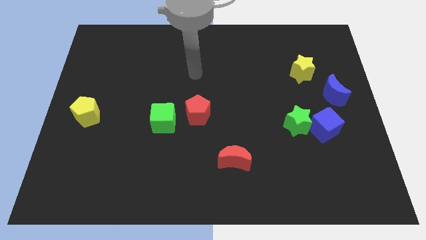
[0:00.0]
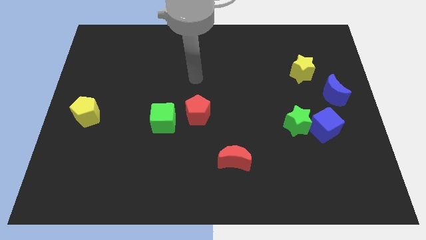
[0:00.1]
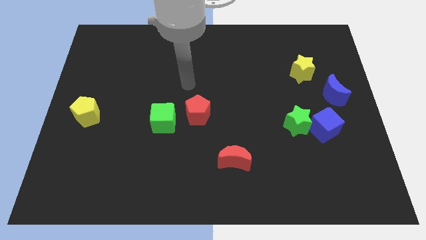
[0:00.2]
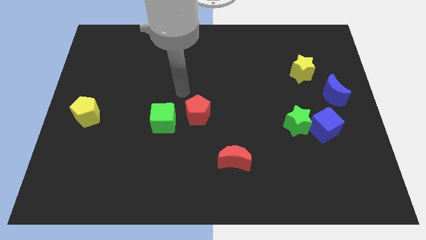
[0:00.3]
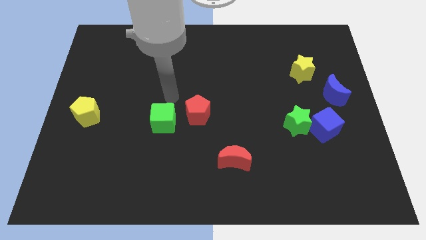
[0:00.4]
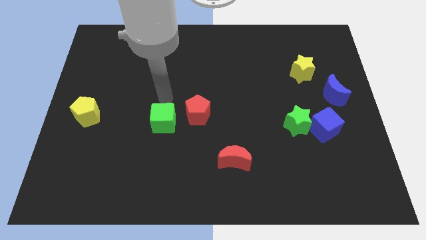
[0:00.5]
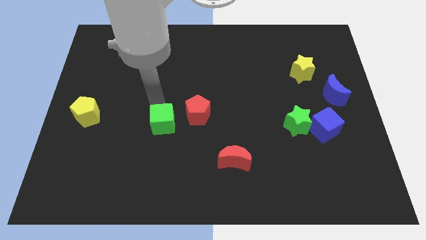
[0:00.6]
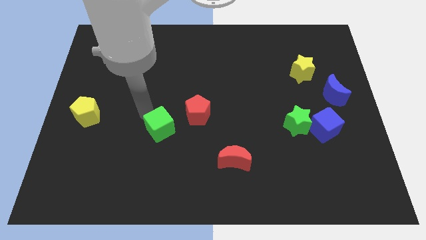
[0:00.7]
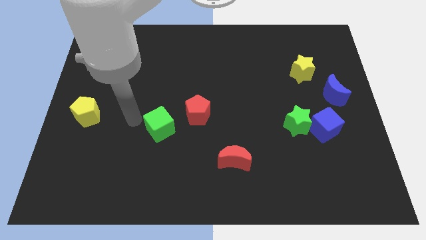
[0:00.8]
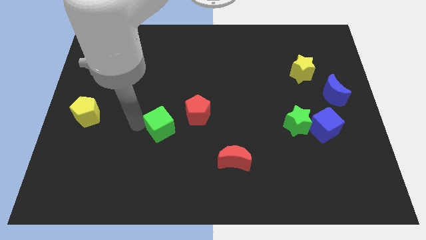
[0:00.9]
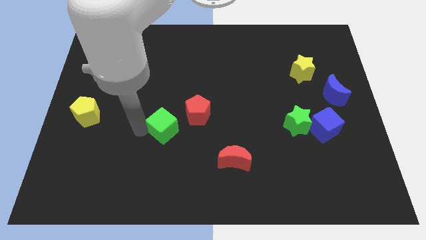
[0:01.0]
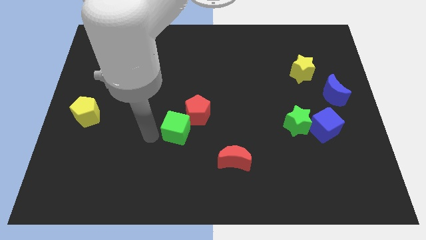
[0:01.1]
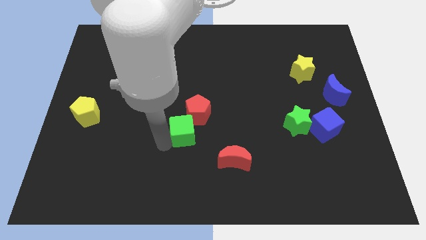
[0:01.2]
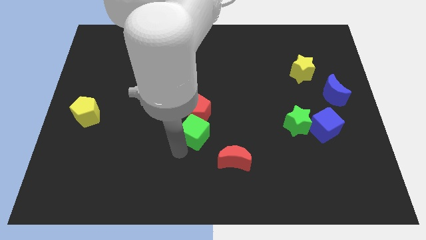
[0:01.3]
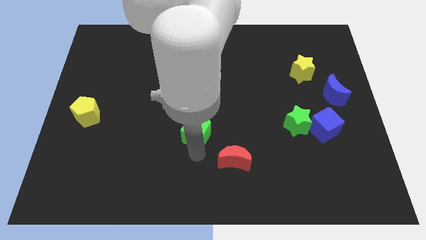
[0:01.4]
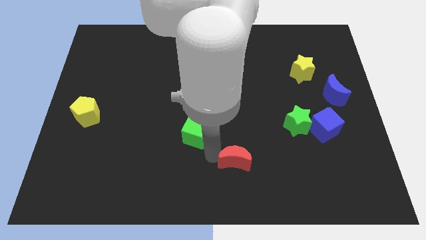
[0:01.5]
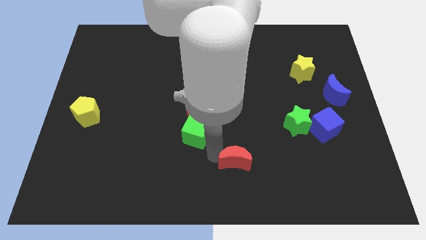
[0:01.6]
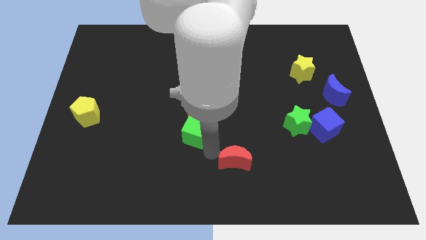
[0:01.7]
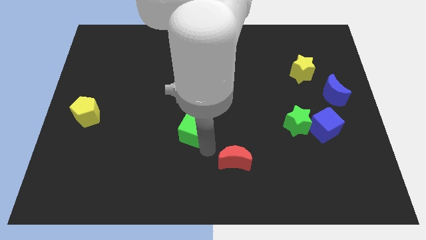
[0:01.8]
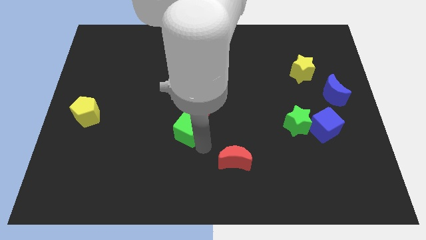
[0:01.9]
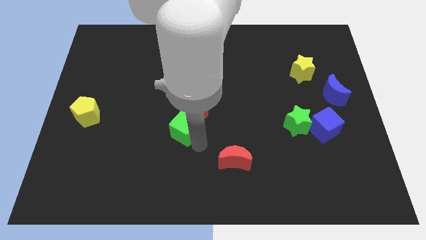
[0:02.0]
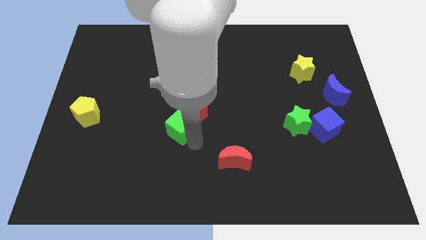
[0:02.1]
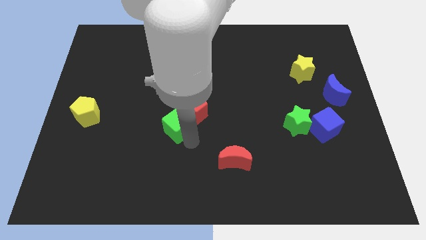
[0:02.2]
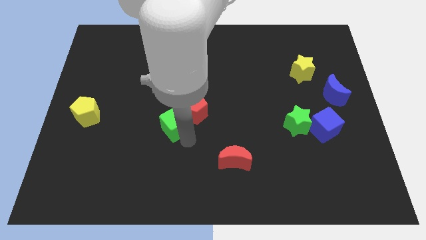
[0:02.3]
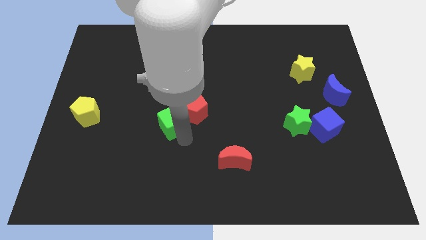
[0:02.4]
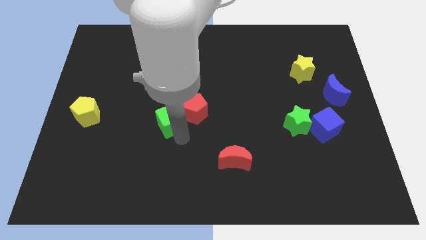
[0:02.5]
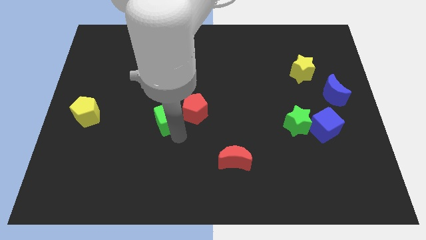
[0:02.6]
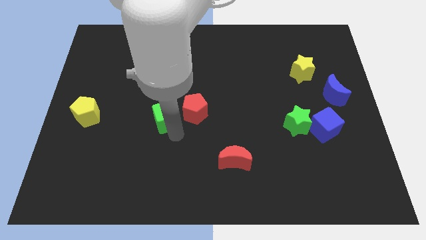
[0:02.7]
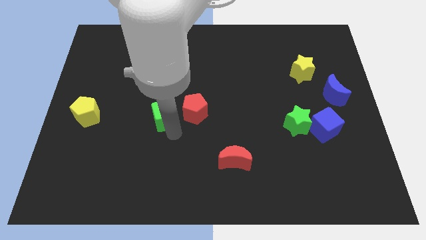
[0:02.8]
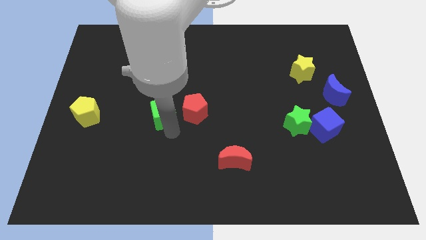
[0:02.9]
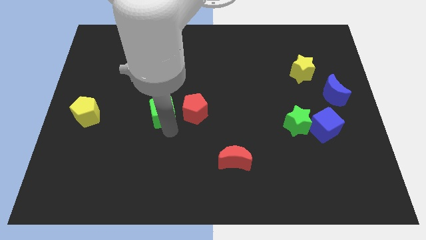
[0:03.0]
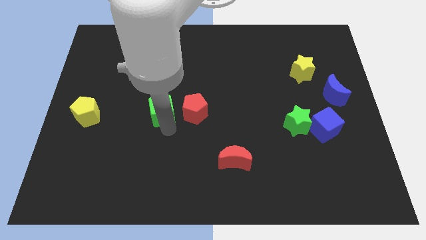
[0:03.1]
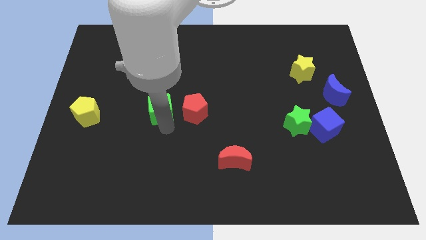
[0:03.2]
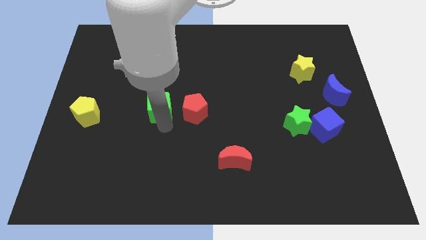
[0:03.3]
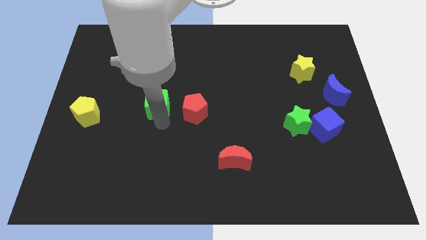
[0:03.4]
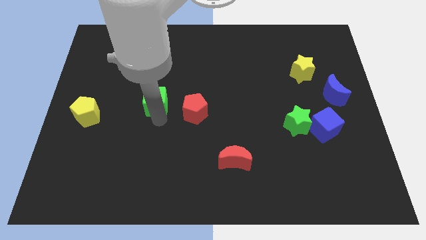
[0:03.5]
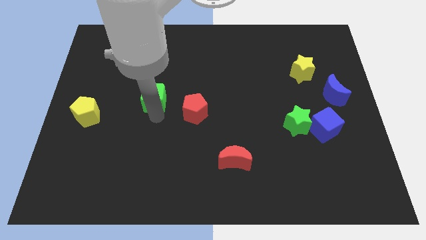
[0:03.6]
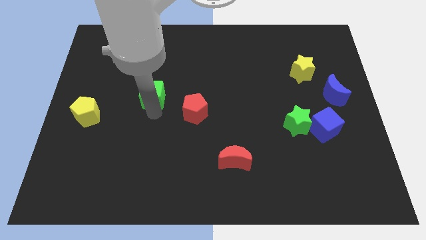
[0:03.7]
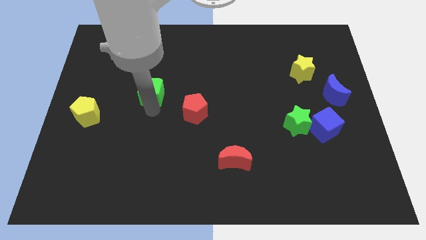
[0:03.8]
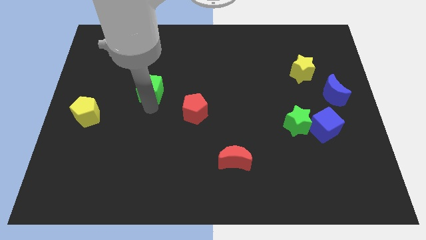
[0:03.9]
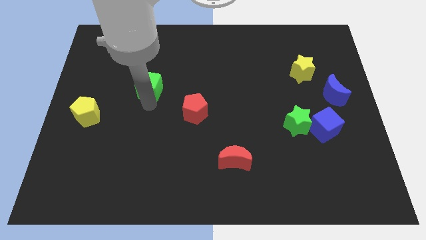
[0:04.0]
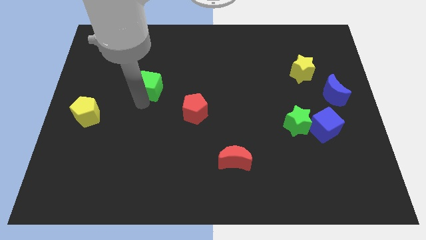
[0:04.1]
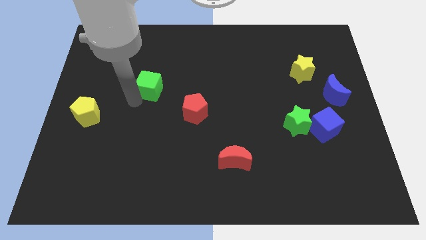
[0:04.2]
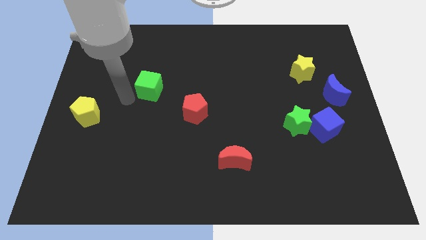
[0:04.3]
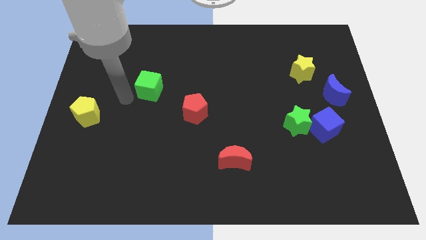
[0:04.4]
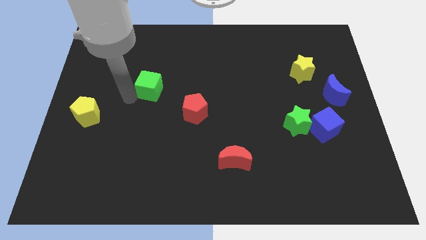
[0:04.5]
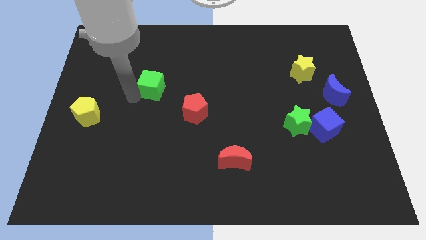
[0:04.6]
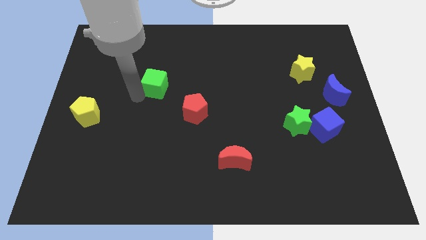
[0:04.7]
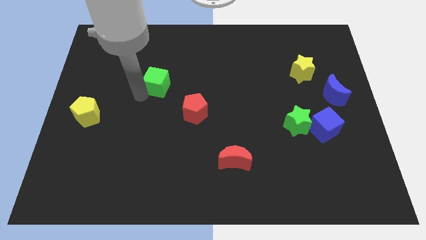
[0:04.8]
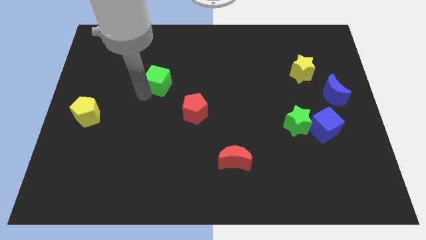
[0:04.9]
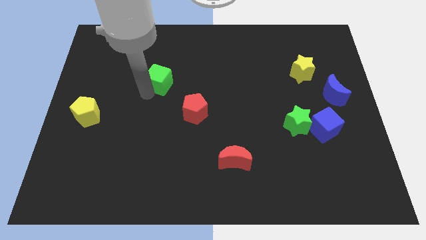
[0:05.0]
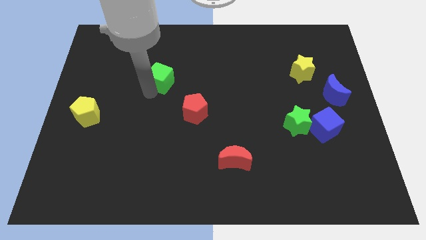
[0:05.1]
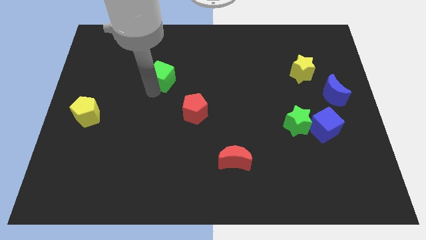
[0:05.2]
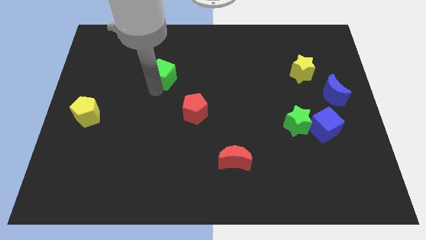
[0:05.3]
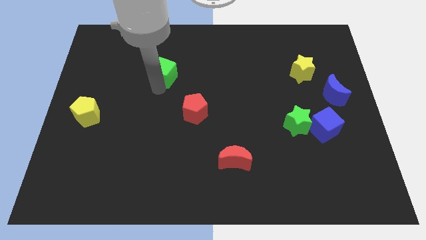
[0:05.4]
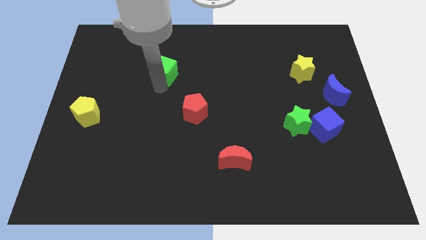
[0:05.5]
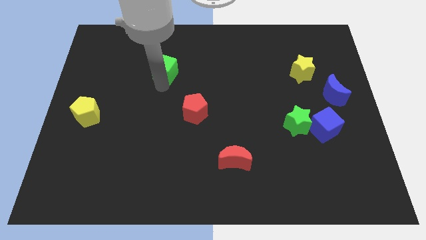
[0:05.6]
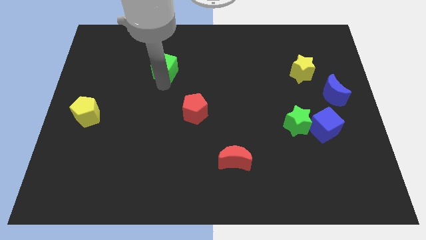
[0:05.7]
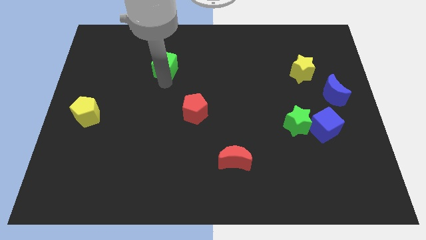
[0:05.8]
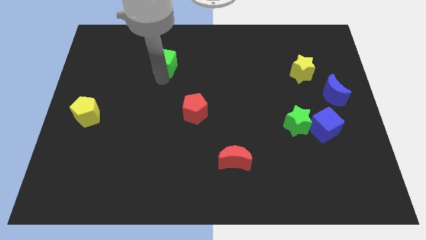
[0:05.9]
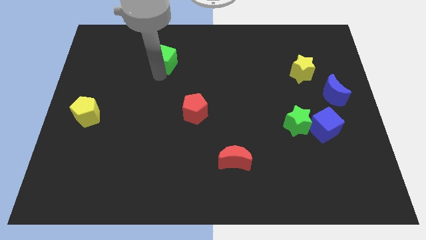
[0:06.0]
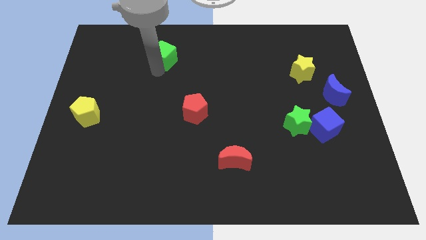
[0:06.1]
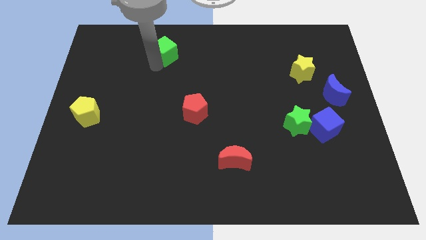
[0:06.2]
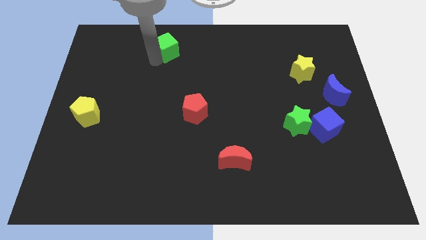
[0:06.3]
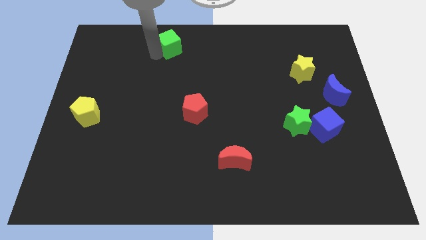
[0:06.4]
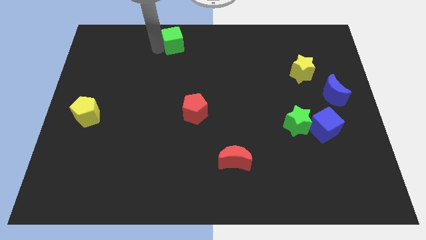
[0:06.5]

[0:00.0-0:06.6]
push the green cube to the top

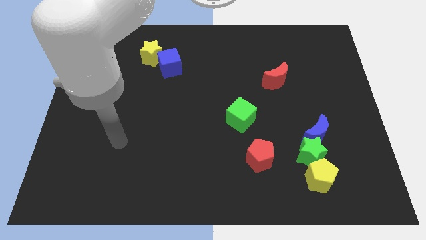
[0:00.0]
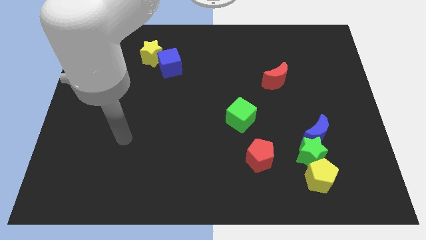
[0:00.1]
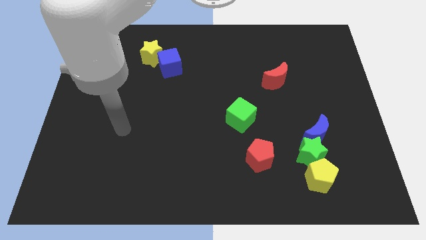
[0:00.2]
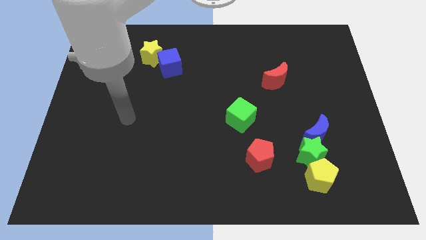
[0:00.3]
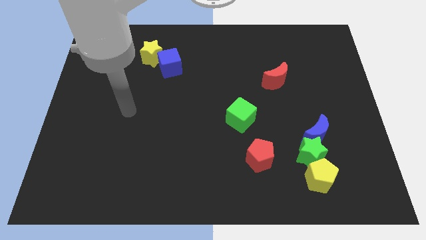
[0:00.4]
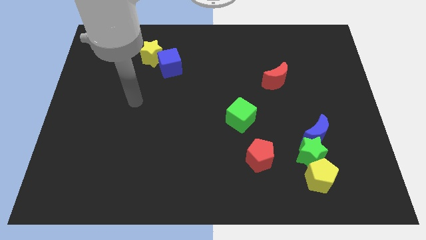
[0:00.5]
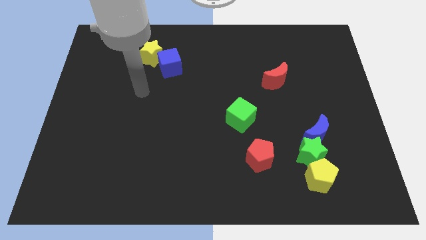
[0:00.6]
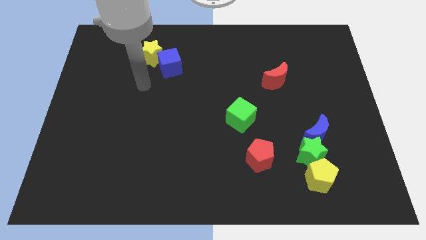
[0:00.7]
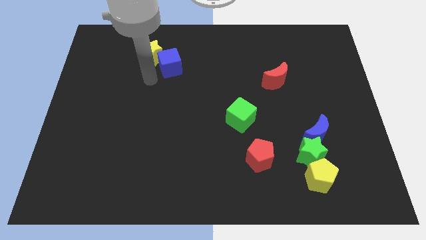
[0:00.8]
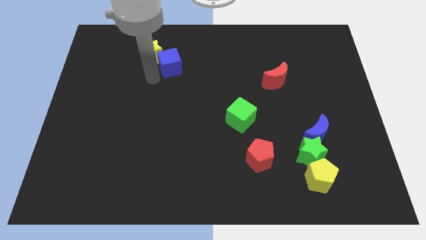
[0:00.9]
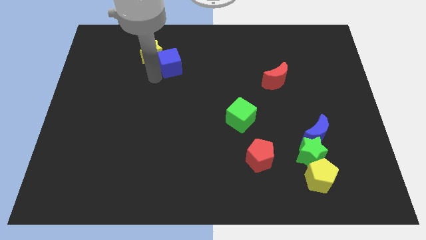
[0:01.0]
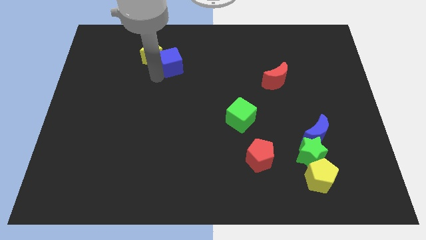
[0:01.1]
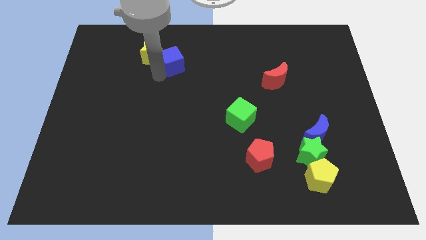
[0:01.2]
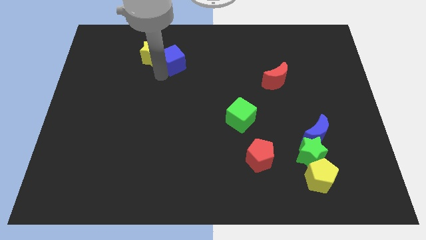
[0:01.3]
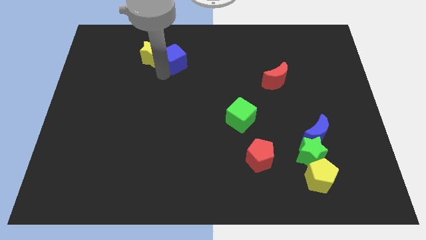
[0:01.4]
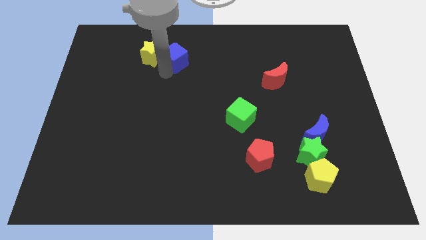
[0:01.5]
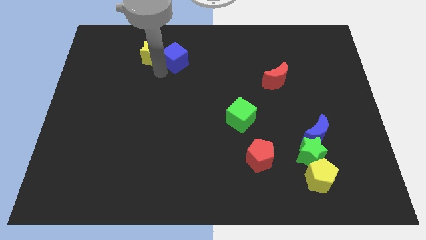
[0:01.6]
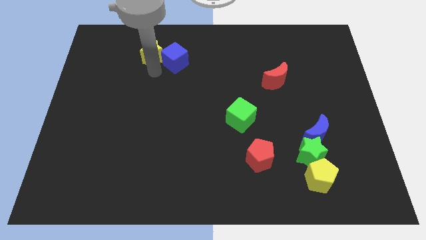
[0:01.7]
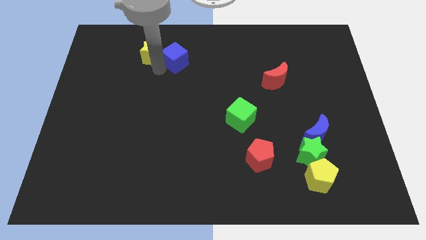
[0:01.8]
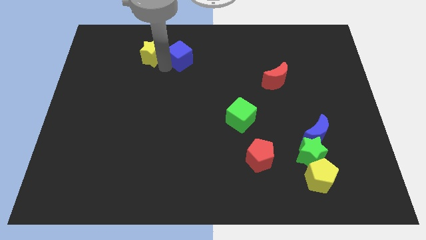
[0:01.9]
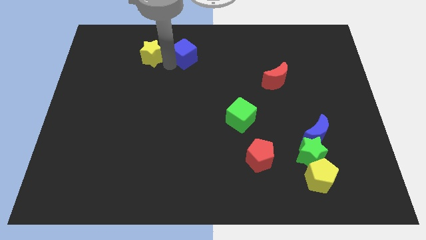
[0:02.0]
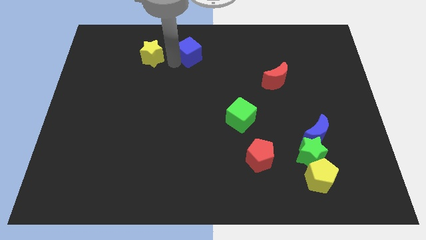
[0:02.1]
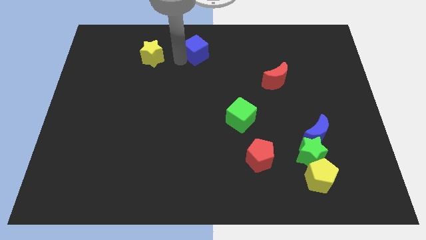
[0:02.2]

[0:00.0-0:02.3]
put the blue cube to the top
